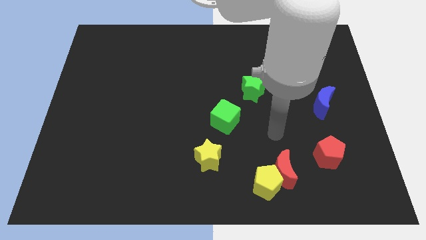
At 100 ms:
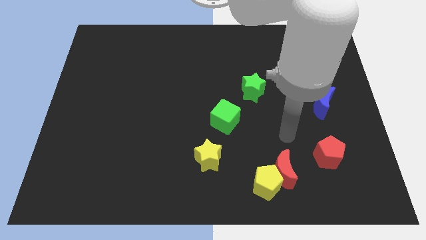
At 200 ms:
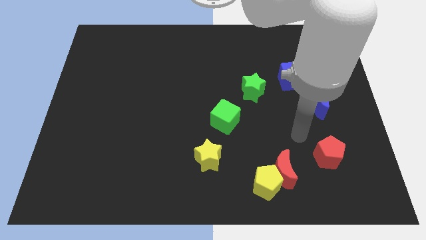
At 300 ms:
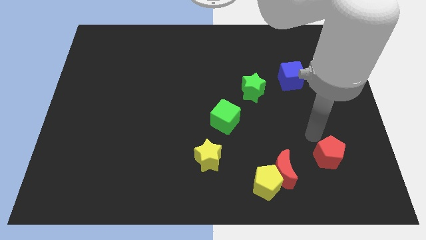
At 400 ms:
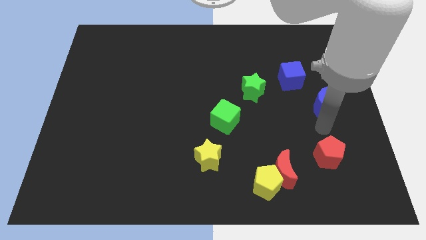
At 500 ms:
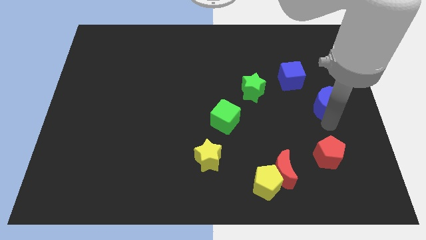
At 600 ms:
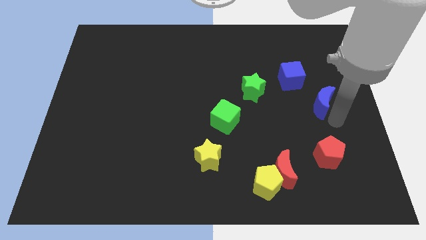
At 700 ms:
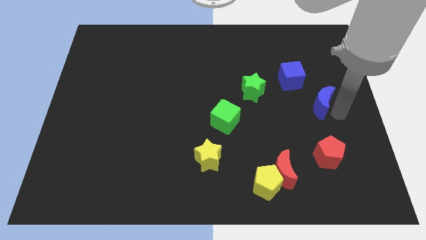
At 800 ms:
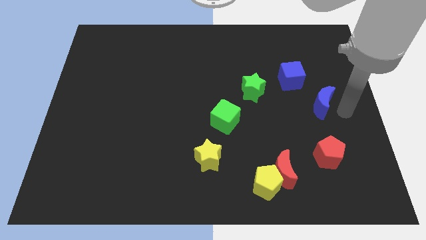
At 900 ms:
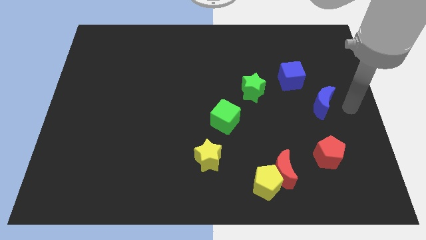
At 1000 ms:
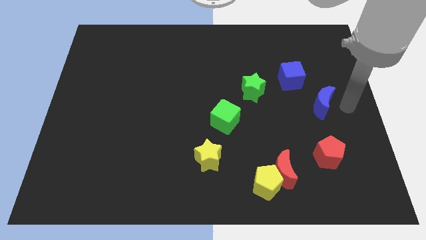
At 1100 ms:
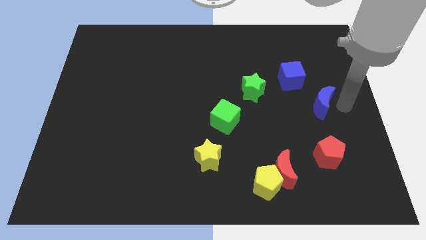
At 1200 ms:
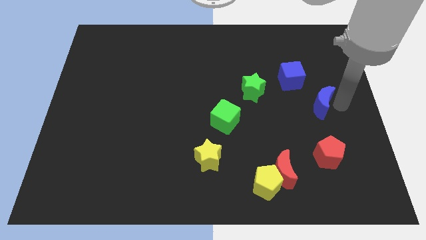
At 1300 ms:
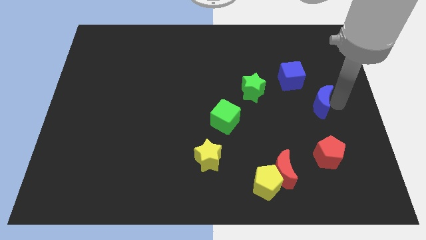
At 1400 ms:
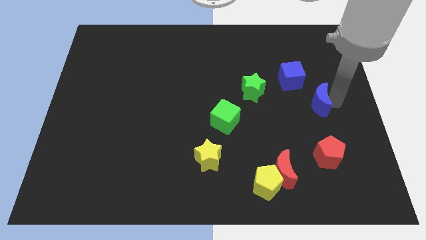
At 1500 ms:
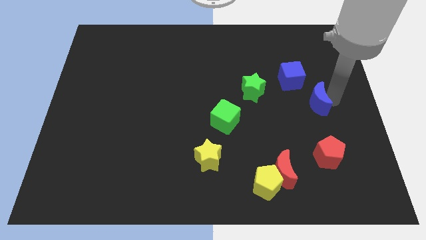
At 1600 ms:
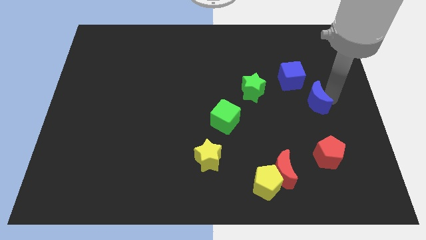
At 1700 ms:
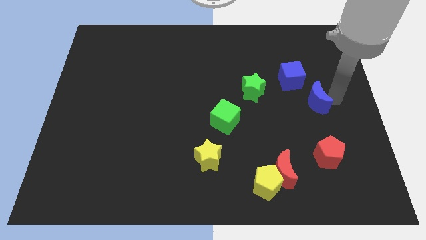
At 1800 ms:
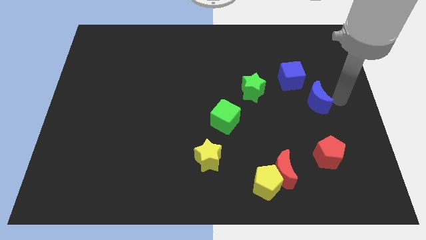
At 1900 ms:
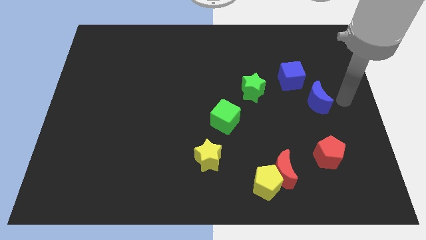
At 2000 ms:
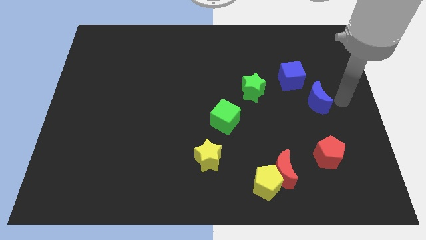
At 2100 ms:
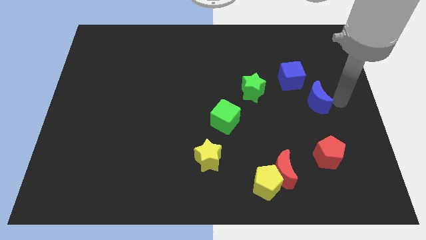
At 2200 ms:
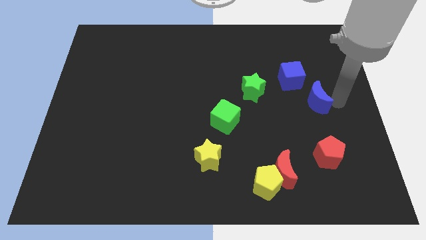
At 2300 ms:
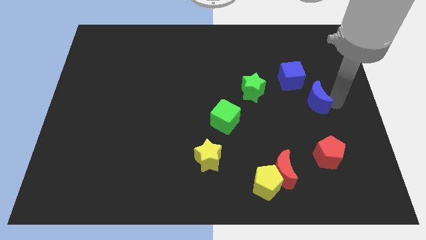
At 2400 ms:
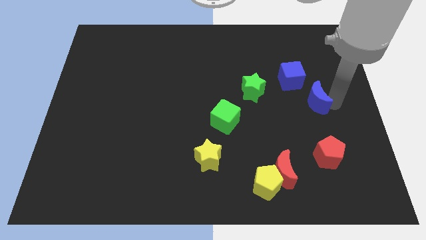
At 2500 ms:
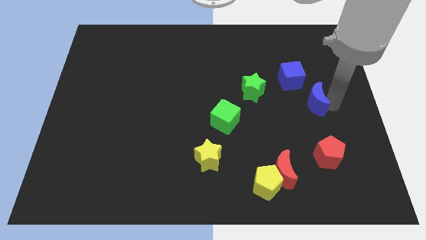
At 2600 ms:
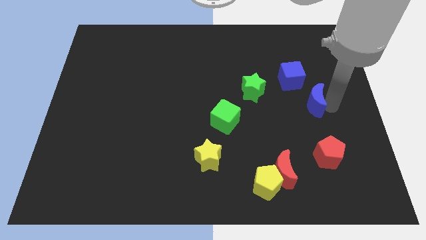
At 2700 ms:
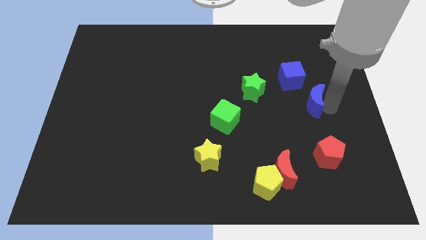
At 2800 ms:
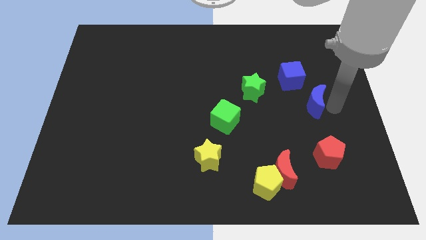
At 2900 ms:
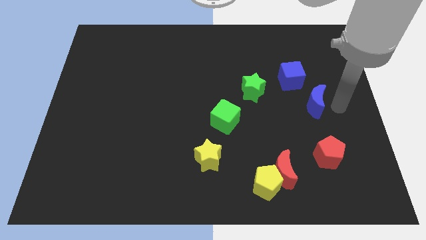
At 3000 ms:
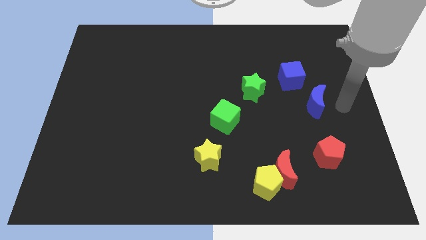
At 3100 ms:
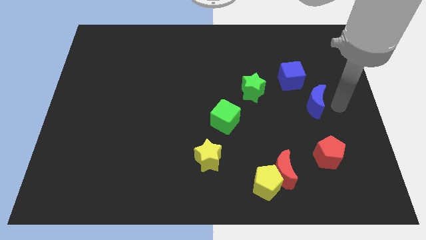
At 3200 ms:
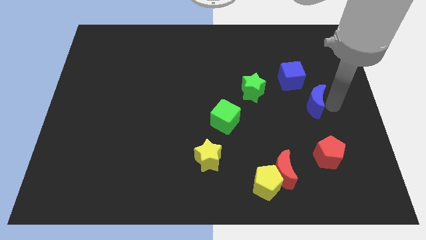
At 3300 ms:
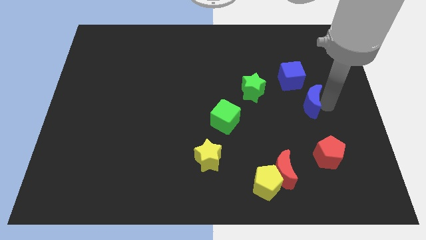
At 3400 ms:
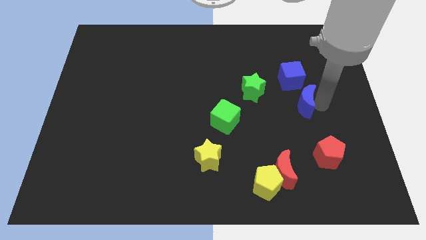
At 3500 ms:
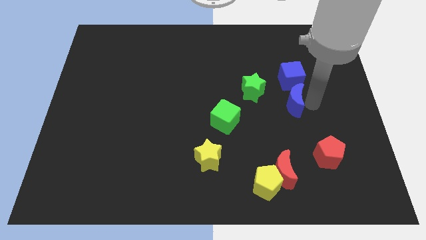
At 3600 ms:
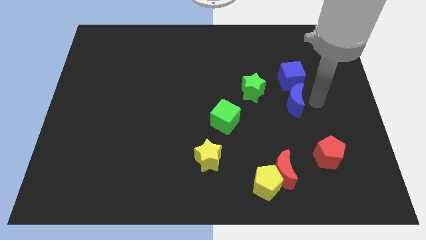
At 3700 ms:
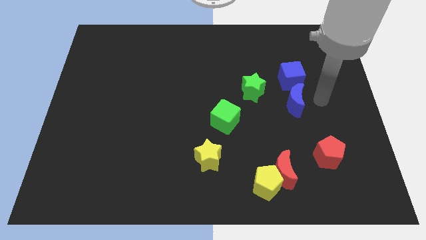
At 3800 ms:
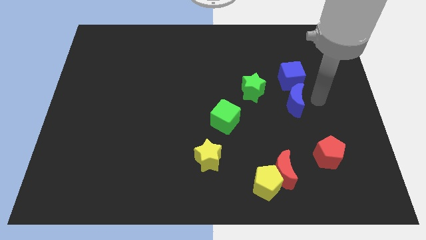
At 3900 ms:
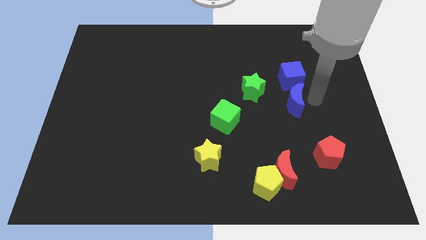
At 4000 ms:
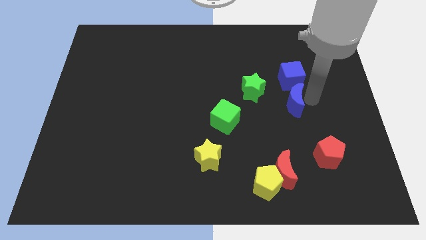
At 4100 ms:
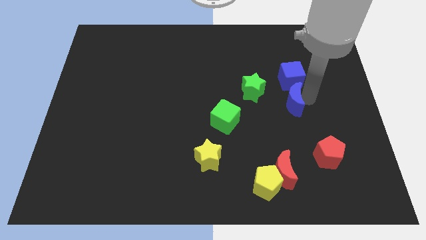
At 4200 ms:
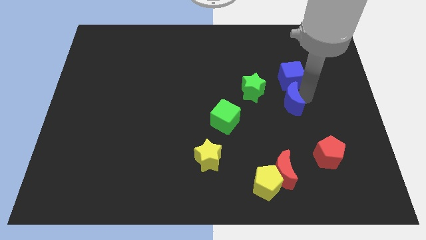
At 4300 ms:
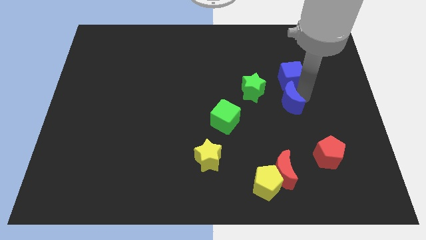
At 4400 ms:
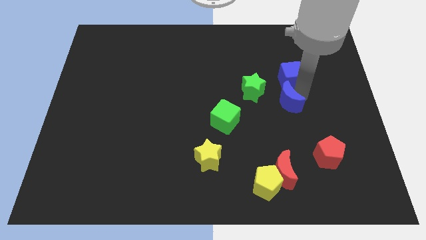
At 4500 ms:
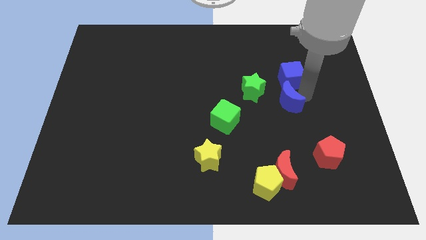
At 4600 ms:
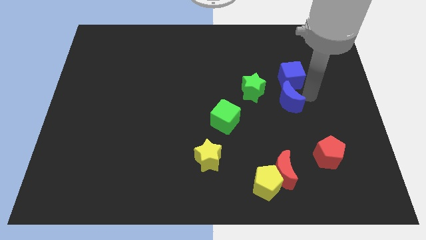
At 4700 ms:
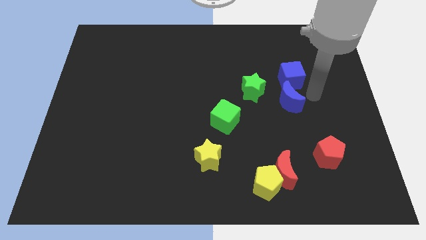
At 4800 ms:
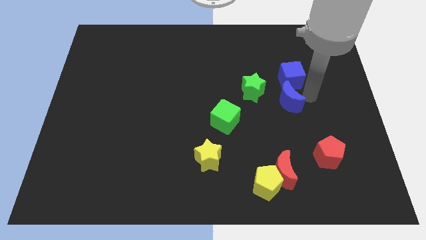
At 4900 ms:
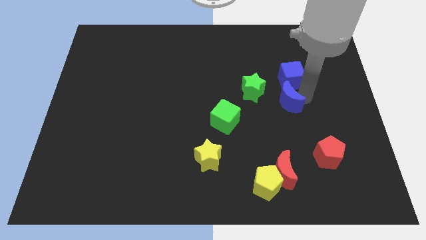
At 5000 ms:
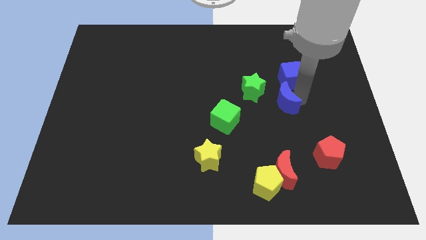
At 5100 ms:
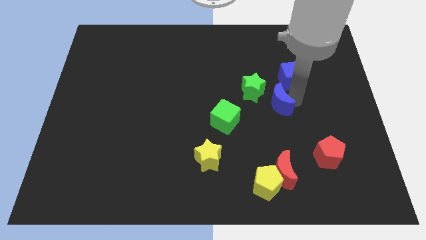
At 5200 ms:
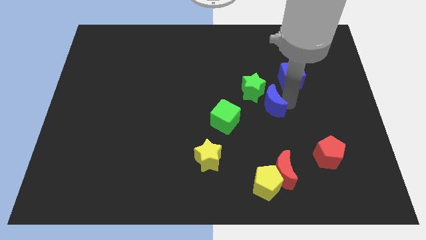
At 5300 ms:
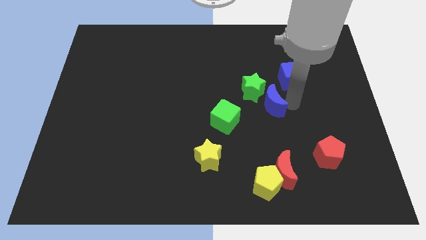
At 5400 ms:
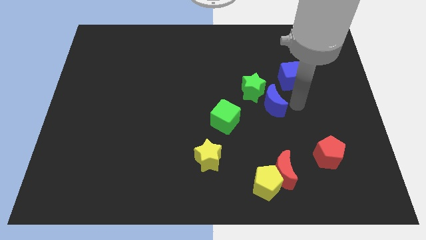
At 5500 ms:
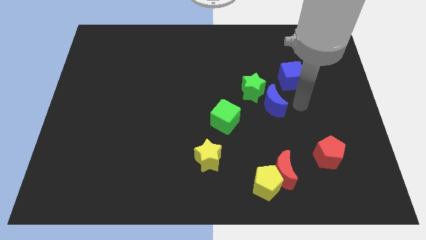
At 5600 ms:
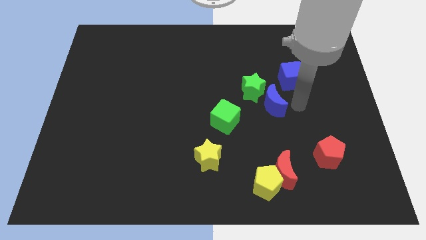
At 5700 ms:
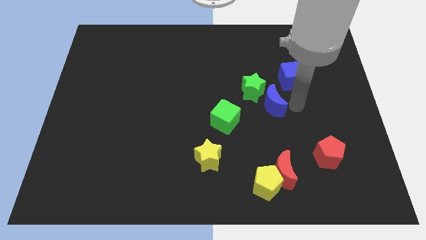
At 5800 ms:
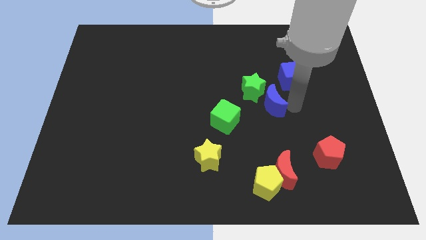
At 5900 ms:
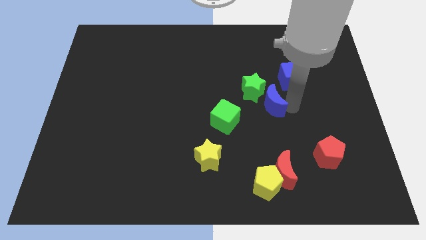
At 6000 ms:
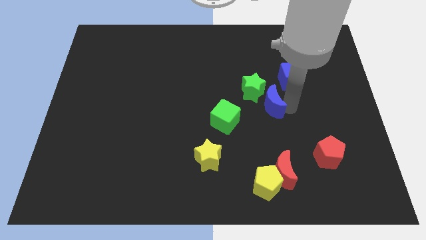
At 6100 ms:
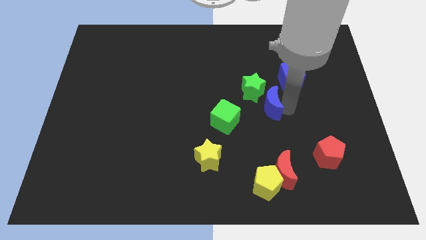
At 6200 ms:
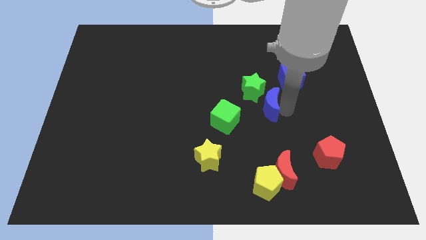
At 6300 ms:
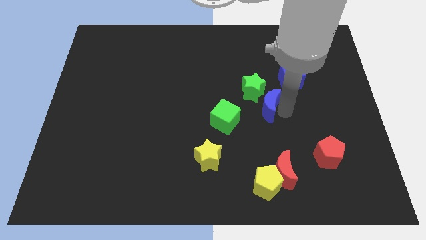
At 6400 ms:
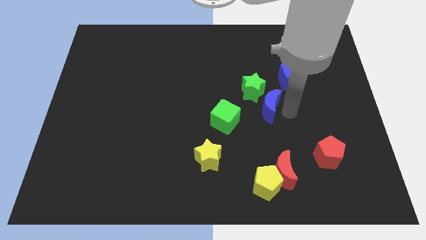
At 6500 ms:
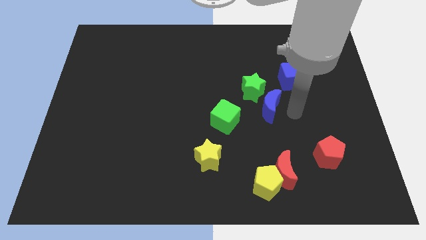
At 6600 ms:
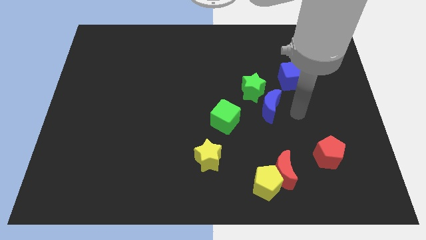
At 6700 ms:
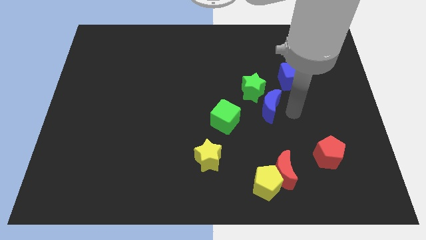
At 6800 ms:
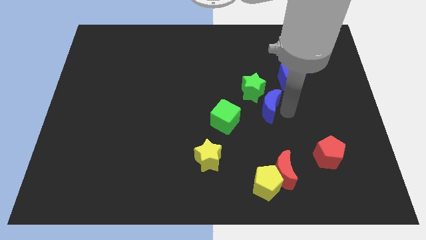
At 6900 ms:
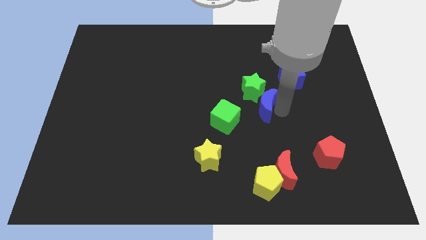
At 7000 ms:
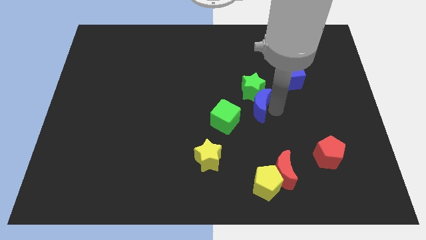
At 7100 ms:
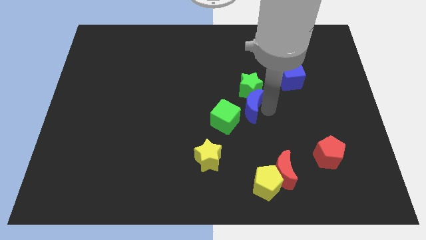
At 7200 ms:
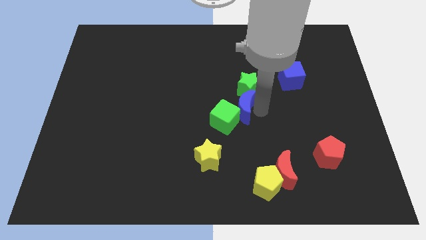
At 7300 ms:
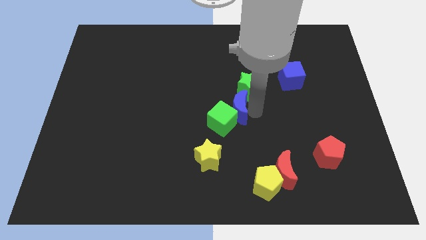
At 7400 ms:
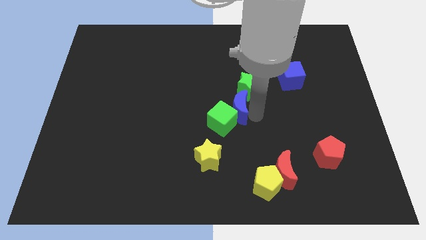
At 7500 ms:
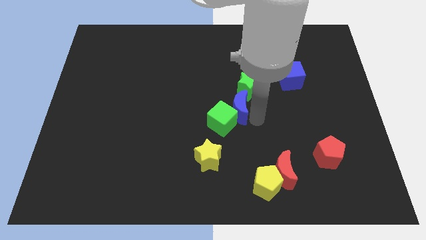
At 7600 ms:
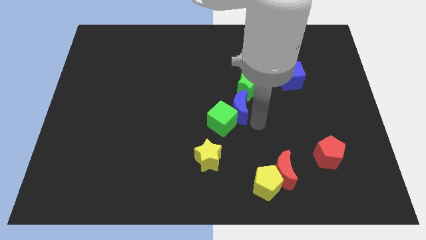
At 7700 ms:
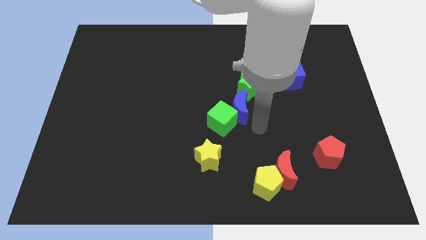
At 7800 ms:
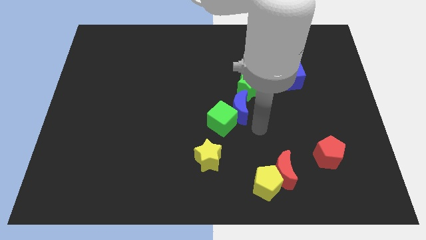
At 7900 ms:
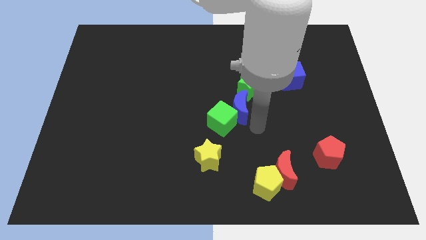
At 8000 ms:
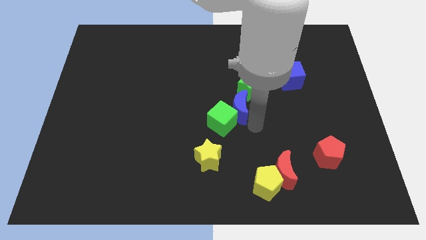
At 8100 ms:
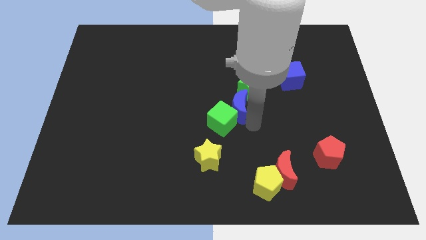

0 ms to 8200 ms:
slide the blue moon left
